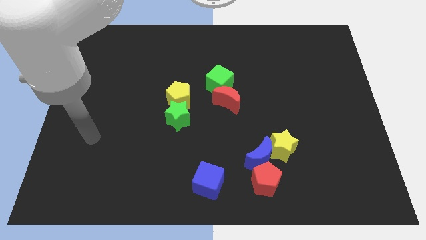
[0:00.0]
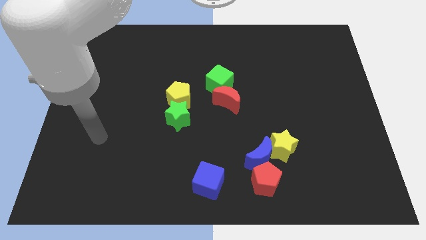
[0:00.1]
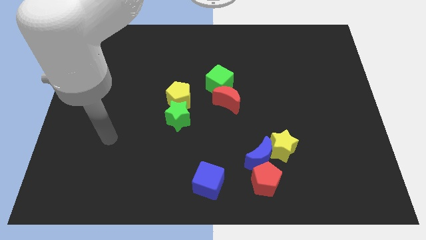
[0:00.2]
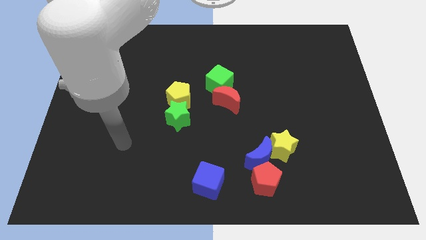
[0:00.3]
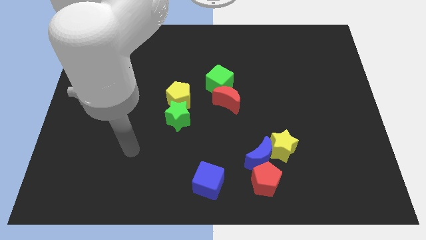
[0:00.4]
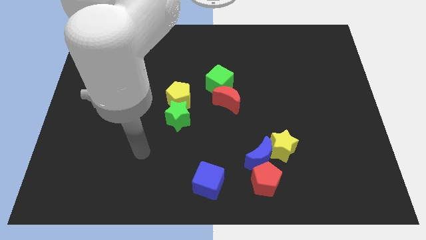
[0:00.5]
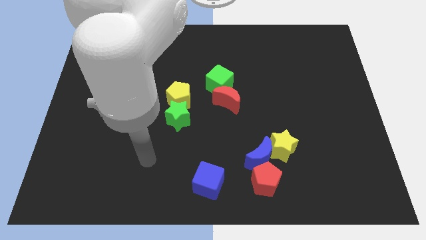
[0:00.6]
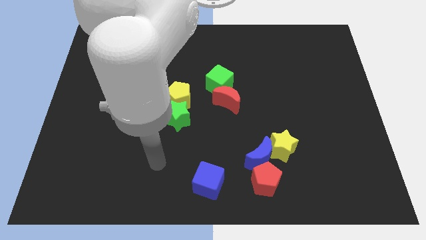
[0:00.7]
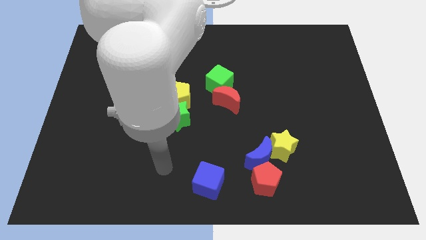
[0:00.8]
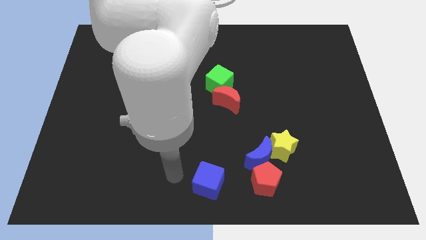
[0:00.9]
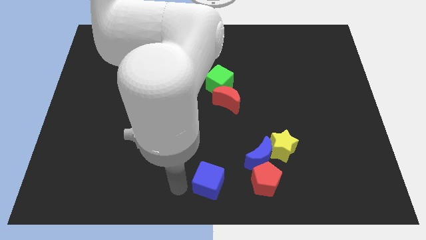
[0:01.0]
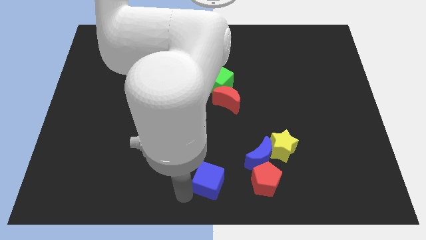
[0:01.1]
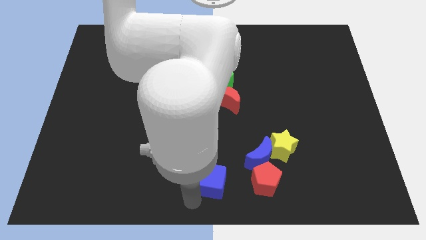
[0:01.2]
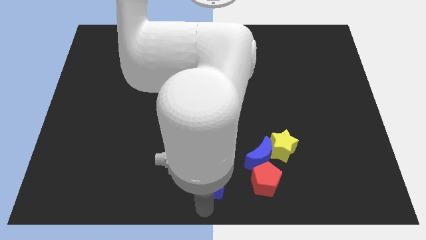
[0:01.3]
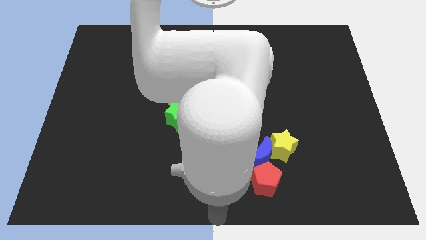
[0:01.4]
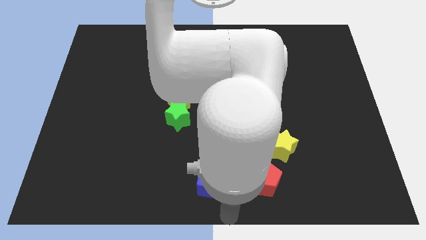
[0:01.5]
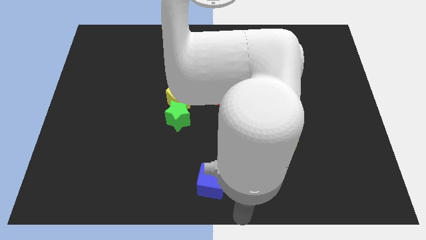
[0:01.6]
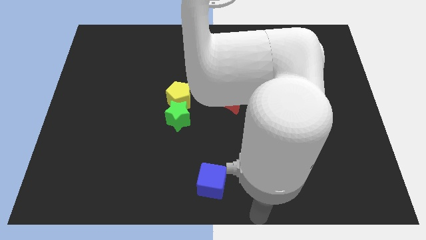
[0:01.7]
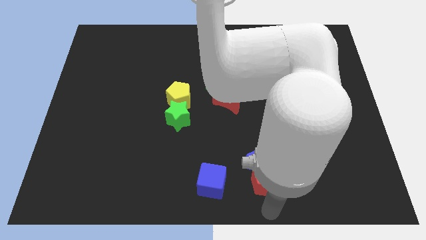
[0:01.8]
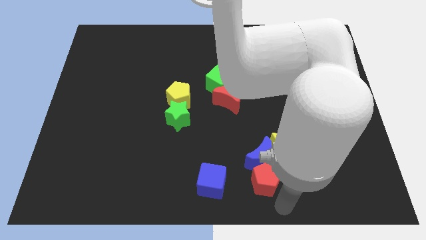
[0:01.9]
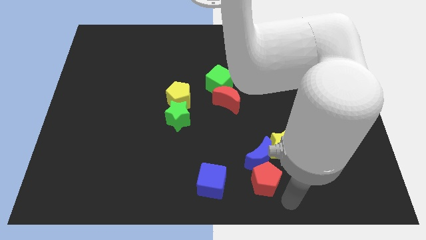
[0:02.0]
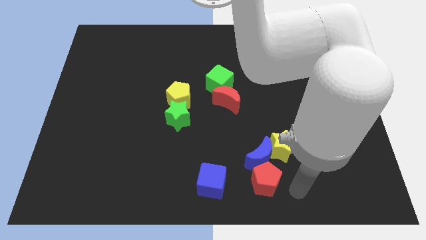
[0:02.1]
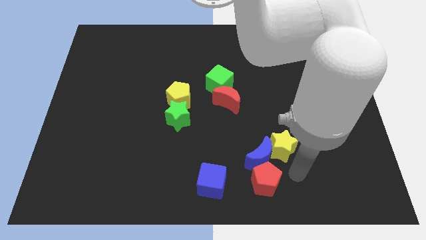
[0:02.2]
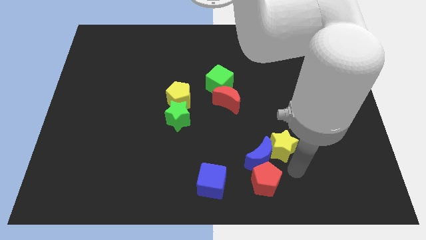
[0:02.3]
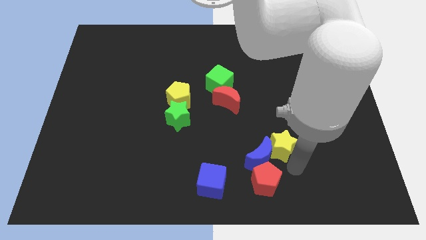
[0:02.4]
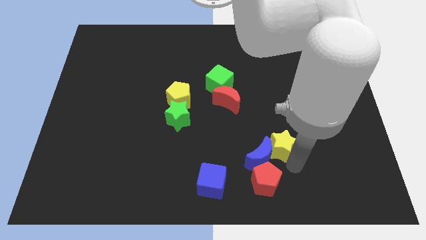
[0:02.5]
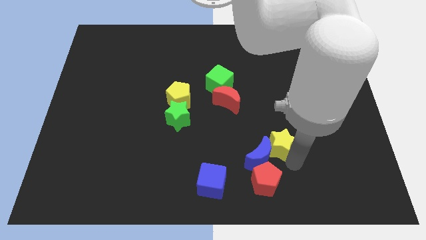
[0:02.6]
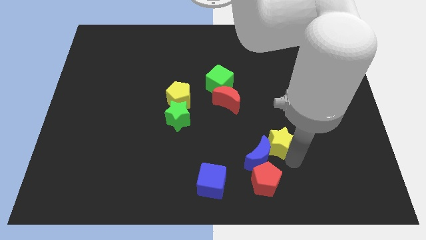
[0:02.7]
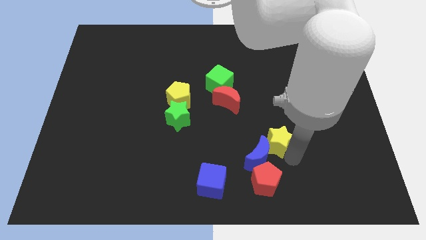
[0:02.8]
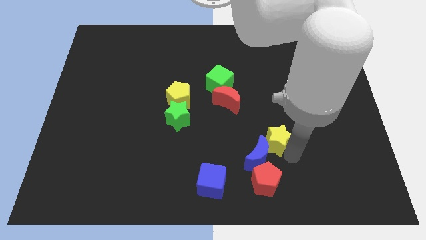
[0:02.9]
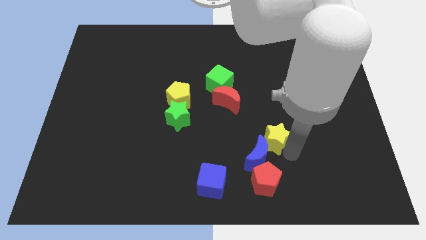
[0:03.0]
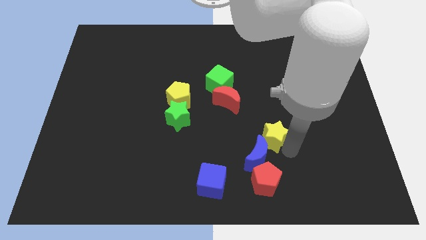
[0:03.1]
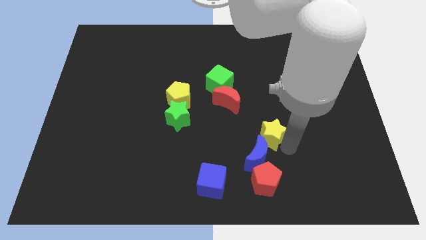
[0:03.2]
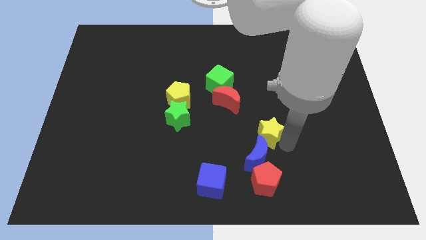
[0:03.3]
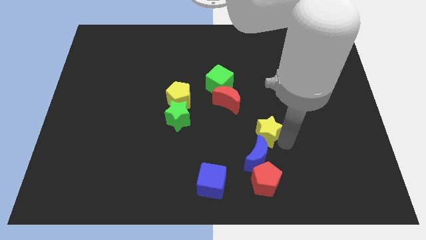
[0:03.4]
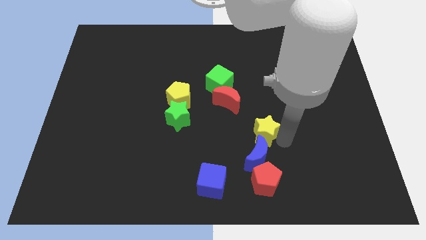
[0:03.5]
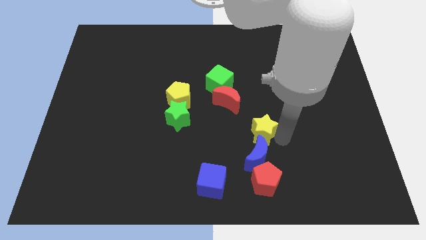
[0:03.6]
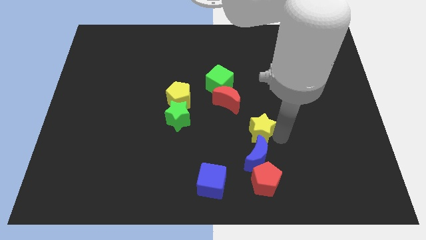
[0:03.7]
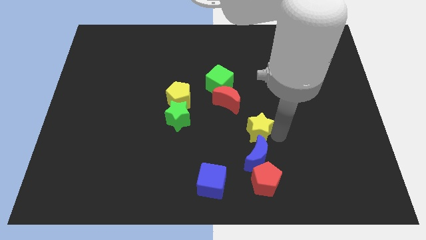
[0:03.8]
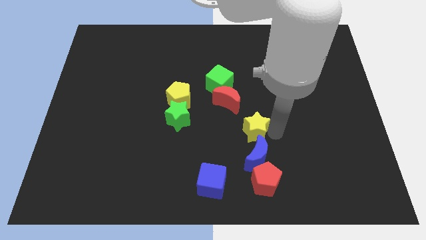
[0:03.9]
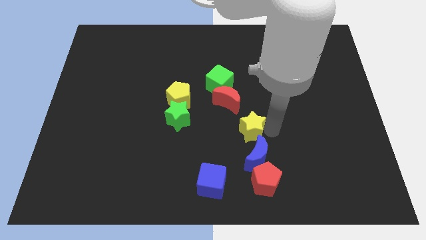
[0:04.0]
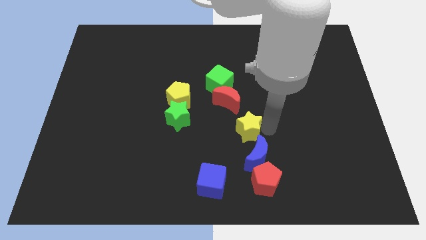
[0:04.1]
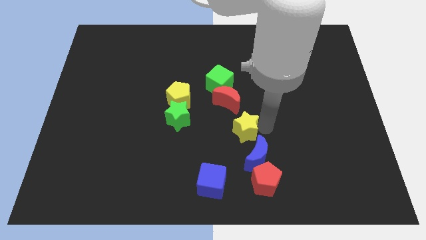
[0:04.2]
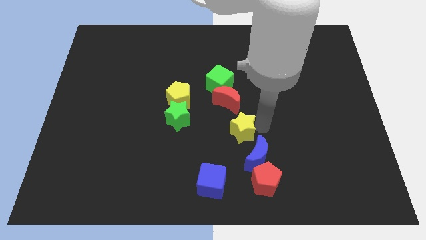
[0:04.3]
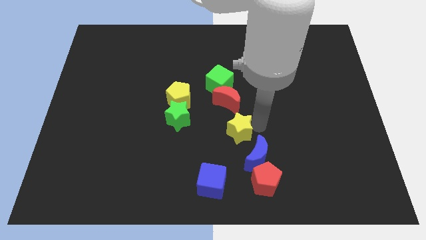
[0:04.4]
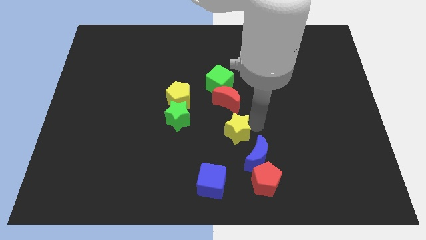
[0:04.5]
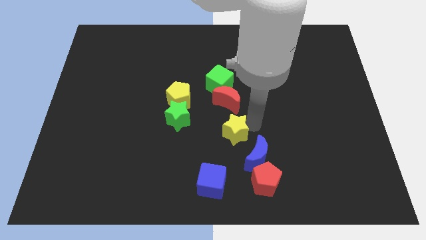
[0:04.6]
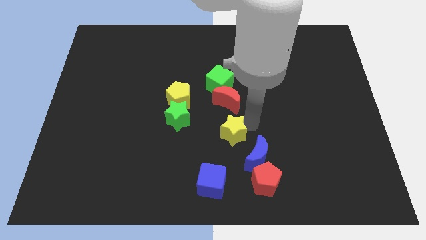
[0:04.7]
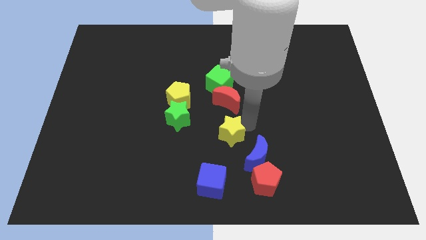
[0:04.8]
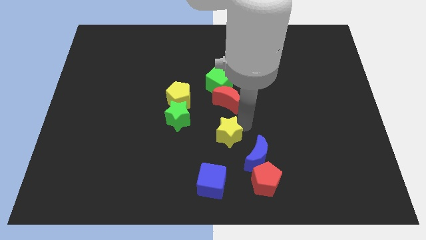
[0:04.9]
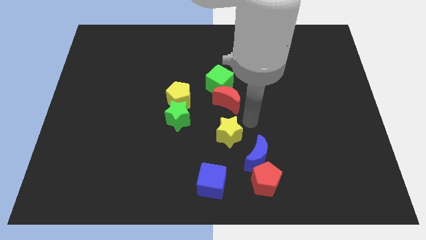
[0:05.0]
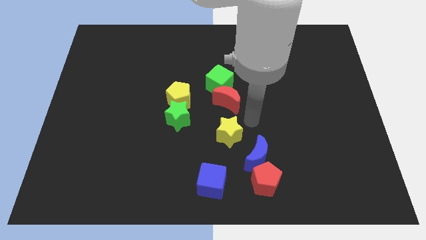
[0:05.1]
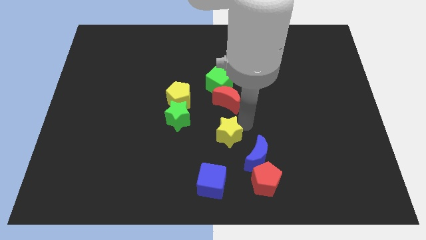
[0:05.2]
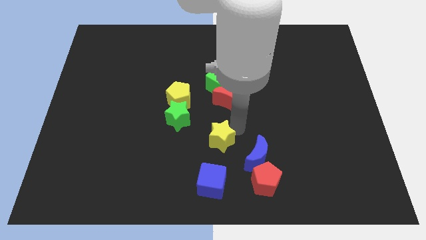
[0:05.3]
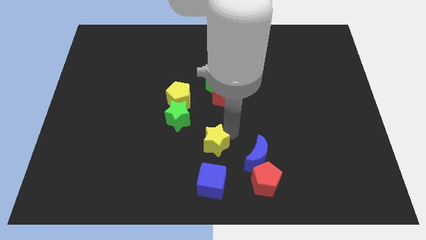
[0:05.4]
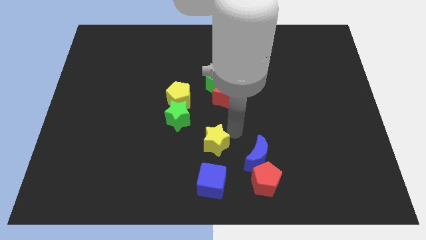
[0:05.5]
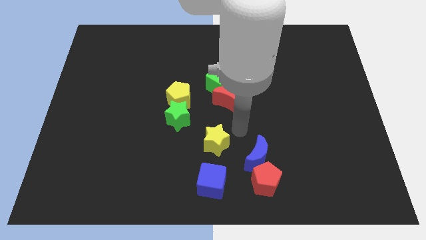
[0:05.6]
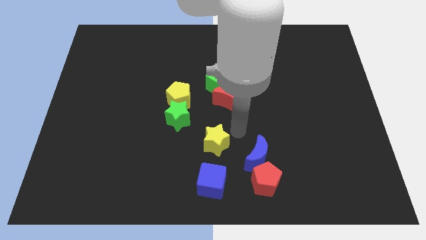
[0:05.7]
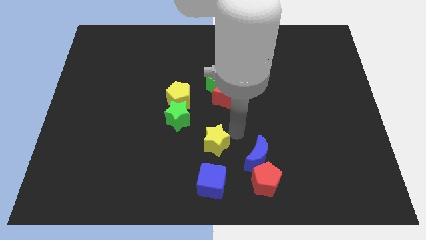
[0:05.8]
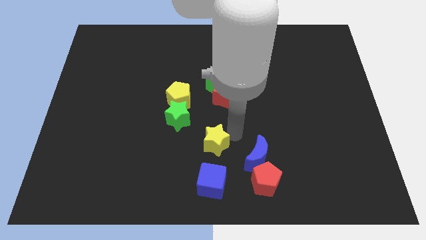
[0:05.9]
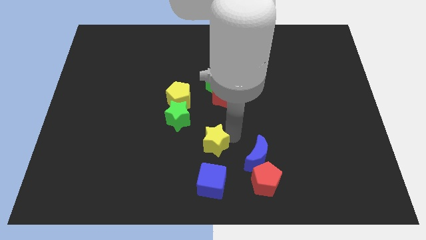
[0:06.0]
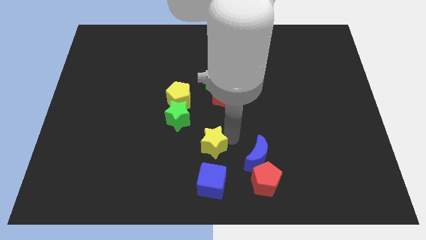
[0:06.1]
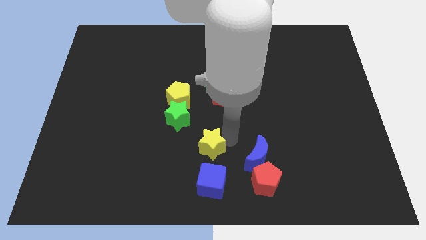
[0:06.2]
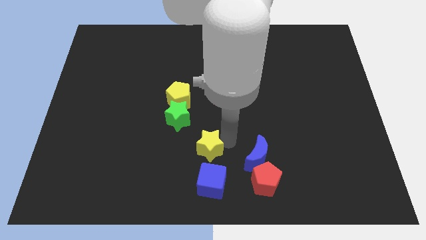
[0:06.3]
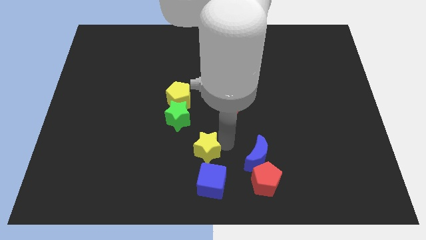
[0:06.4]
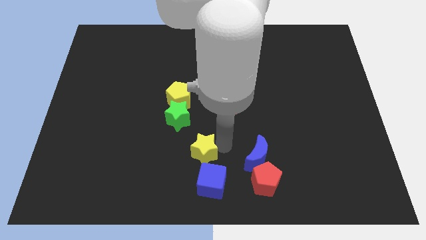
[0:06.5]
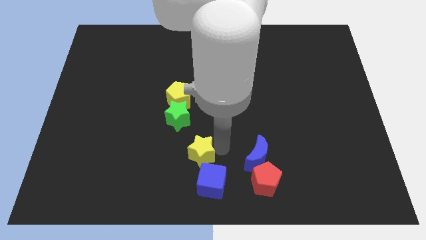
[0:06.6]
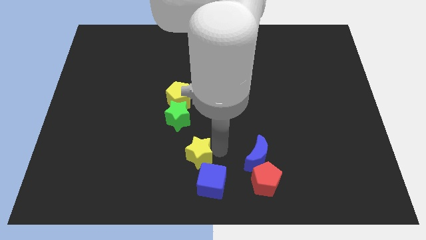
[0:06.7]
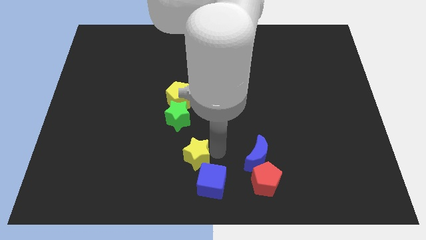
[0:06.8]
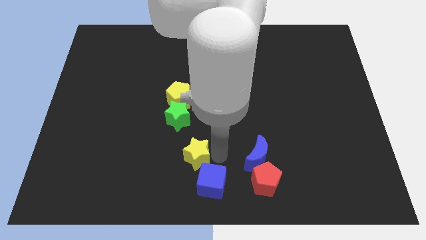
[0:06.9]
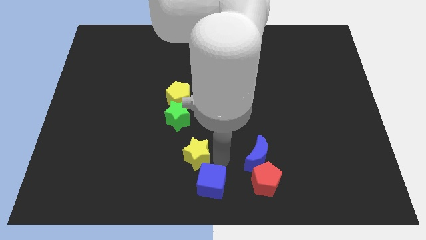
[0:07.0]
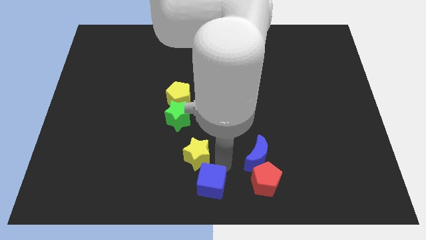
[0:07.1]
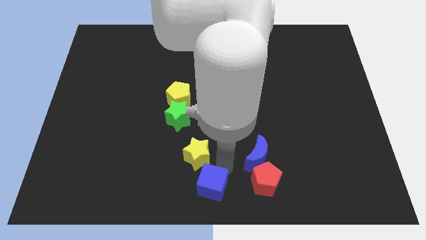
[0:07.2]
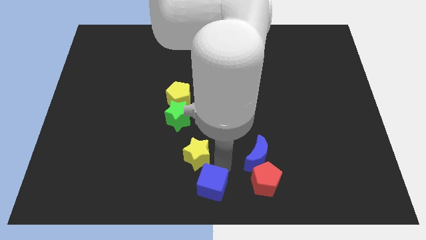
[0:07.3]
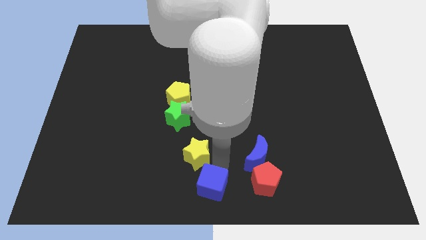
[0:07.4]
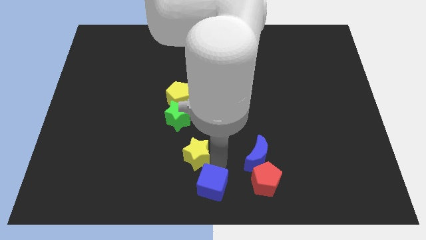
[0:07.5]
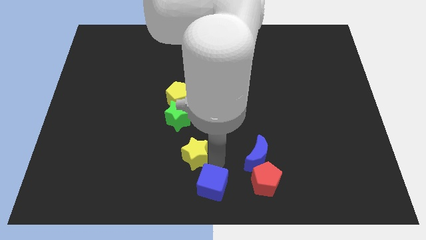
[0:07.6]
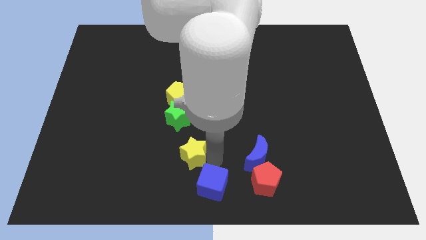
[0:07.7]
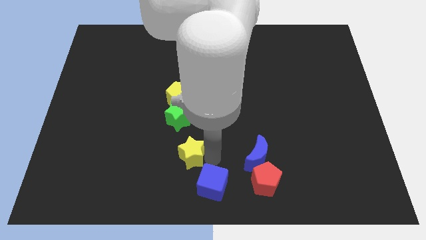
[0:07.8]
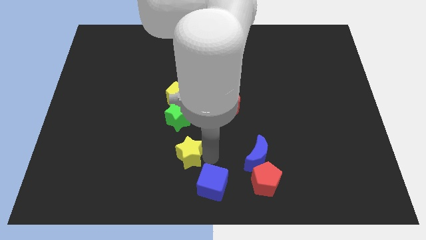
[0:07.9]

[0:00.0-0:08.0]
move the yellow star to the left

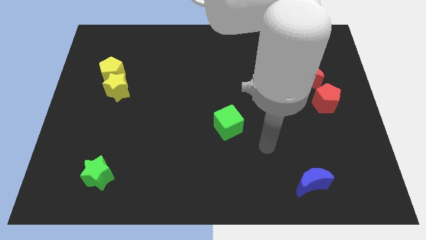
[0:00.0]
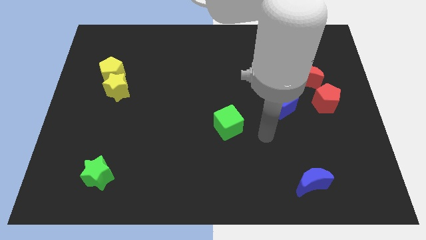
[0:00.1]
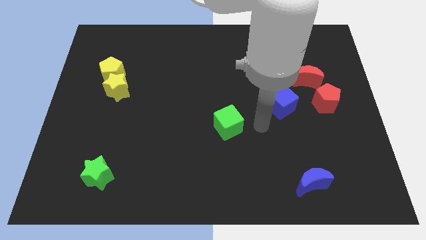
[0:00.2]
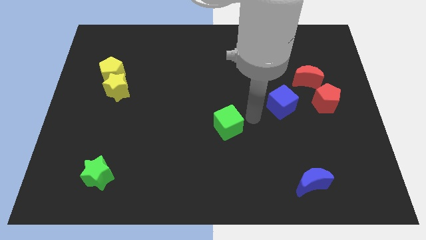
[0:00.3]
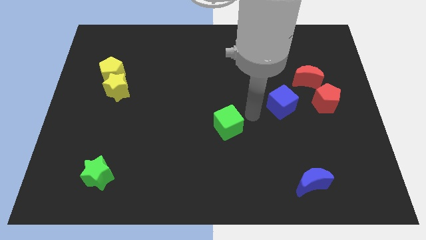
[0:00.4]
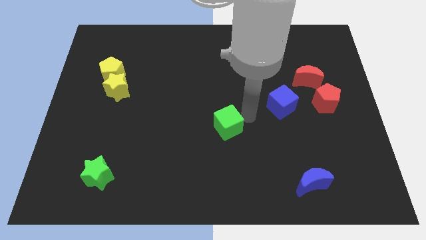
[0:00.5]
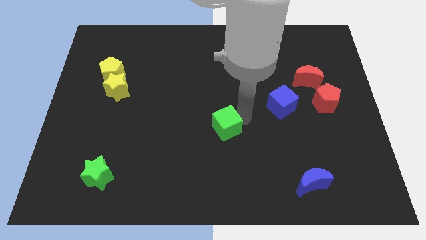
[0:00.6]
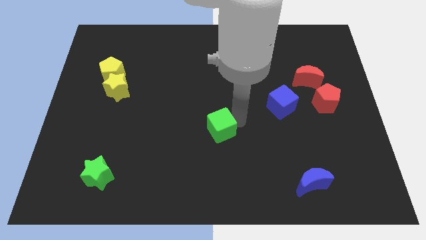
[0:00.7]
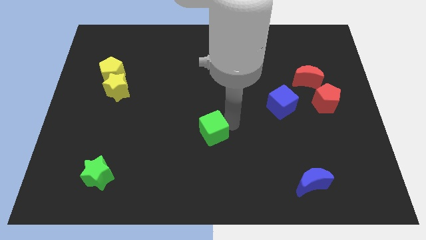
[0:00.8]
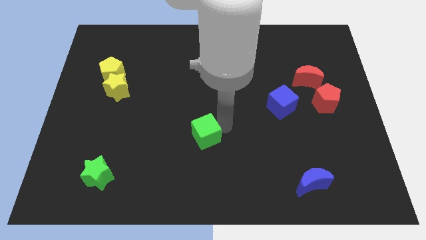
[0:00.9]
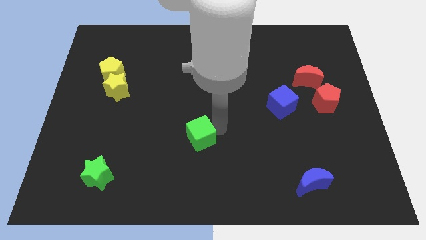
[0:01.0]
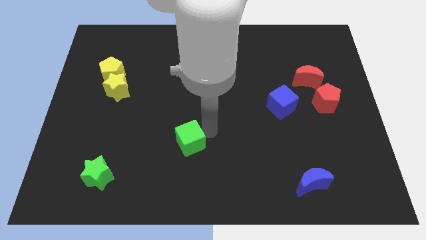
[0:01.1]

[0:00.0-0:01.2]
slightly move the green cube down and then to the left
